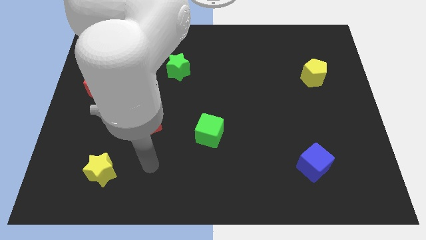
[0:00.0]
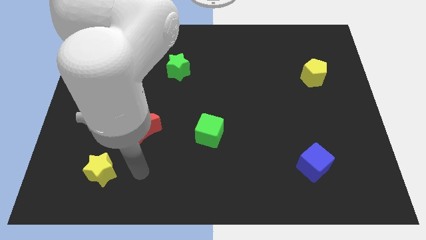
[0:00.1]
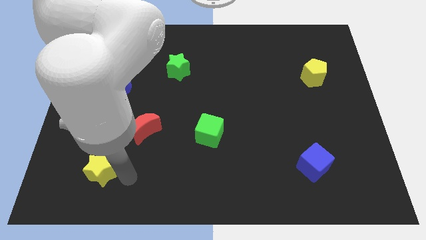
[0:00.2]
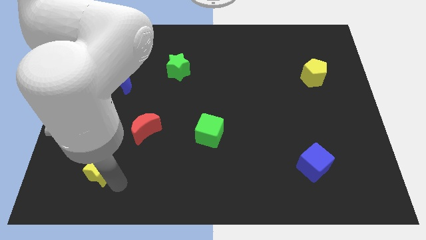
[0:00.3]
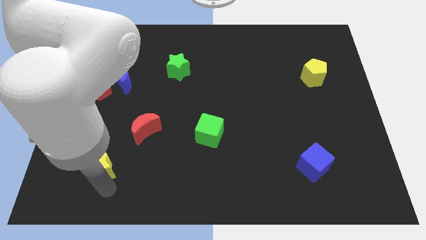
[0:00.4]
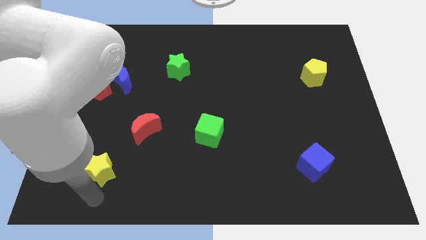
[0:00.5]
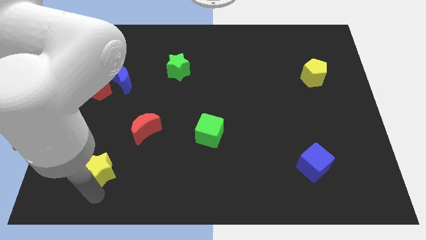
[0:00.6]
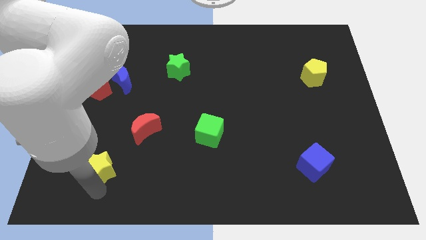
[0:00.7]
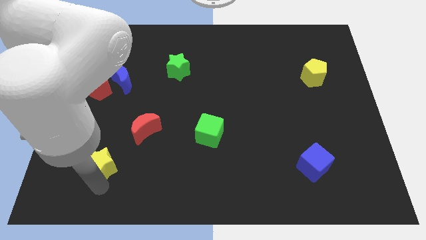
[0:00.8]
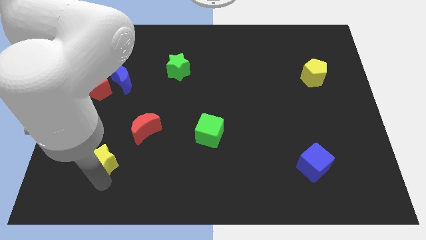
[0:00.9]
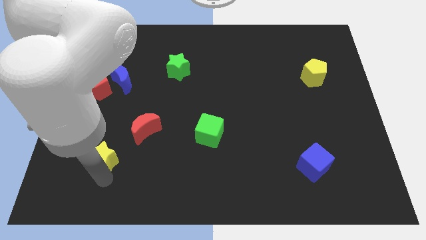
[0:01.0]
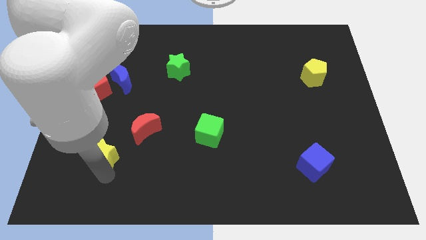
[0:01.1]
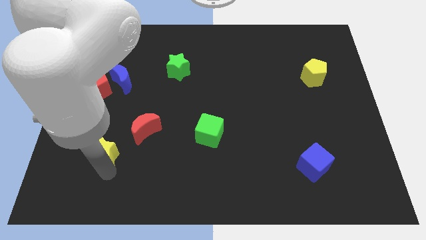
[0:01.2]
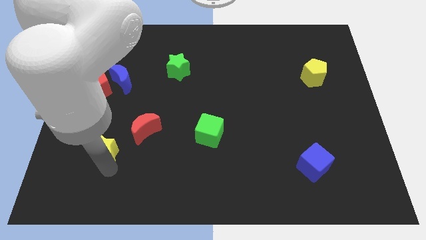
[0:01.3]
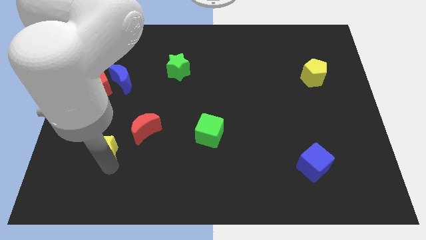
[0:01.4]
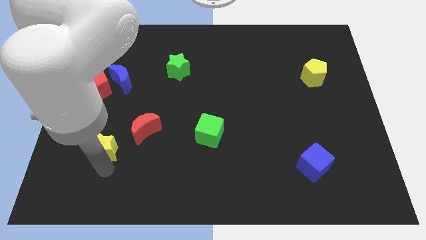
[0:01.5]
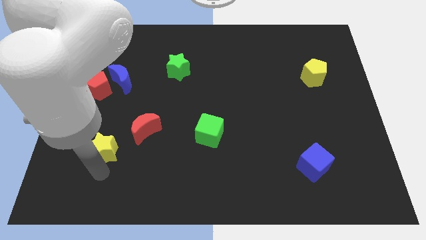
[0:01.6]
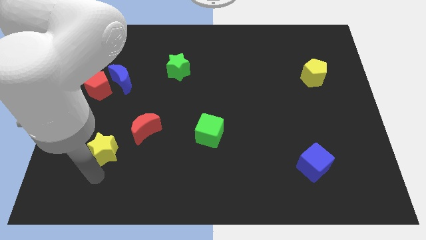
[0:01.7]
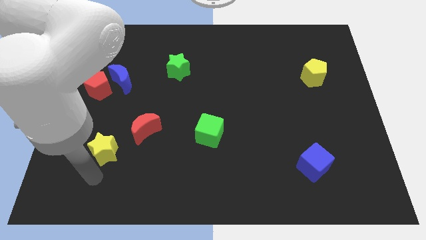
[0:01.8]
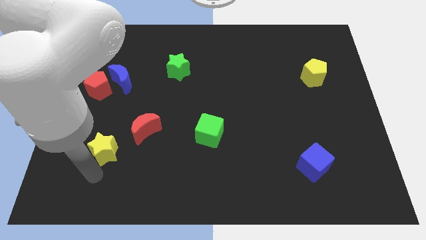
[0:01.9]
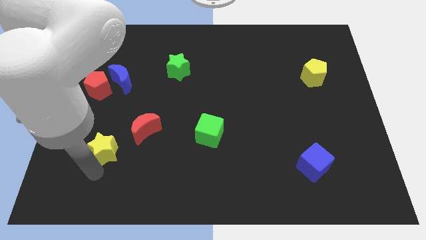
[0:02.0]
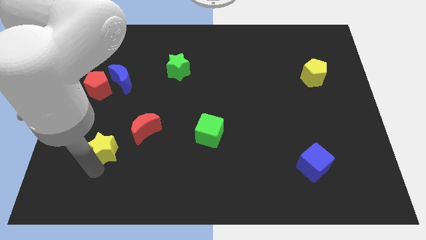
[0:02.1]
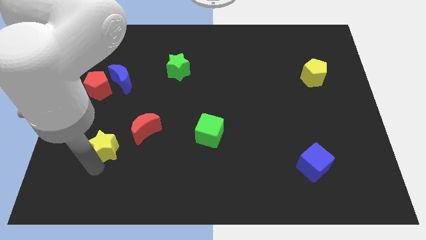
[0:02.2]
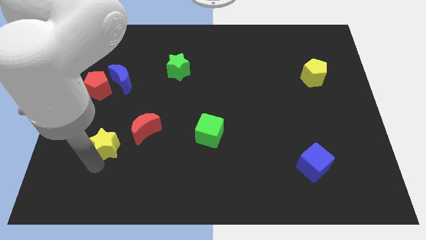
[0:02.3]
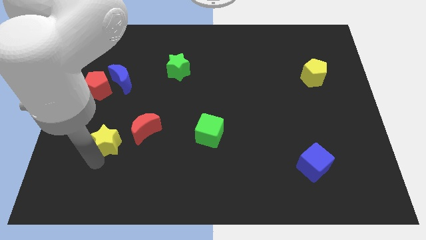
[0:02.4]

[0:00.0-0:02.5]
slide the yellow star a bit up

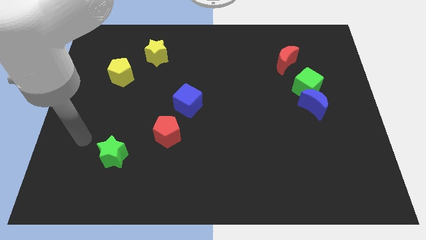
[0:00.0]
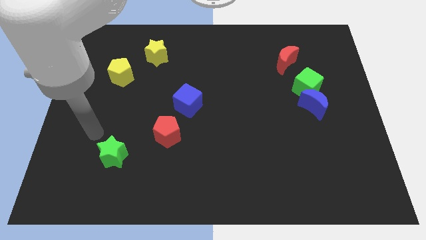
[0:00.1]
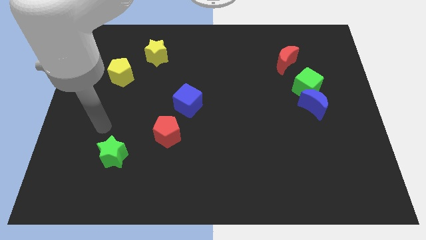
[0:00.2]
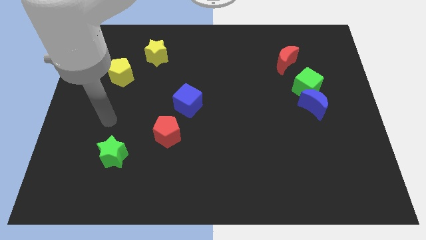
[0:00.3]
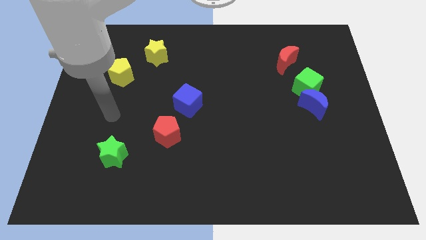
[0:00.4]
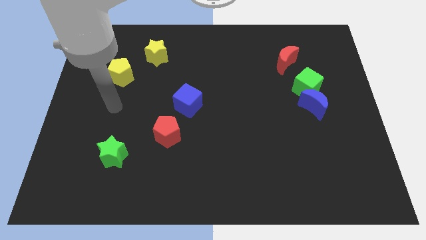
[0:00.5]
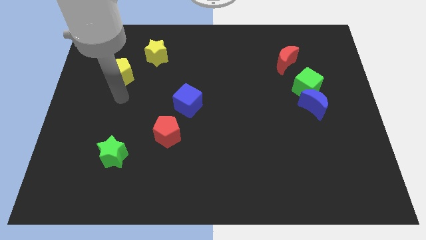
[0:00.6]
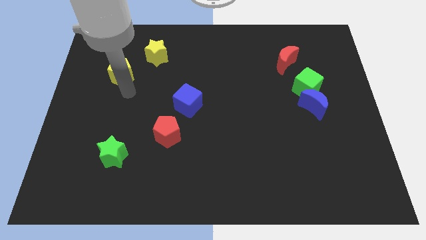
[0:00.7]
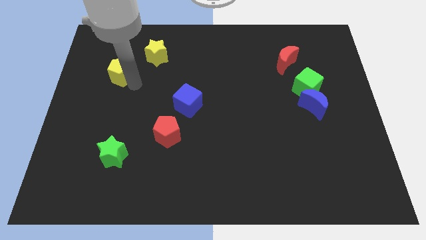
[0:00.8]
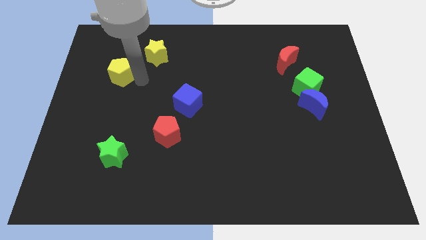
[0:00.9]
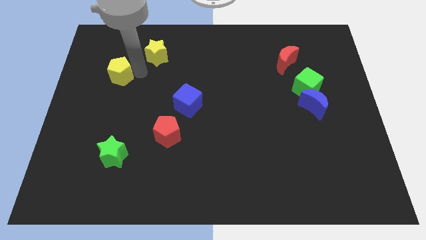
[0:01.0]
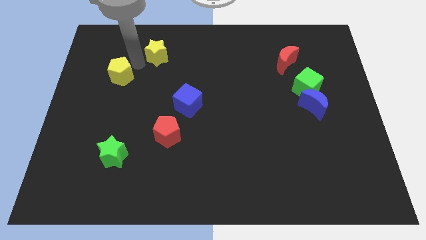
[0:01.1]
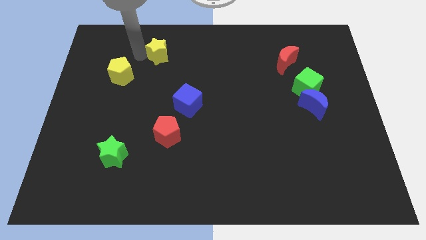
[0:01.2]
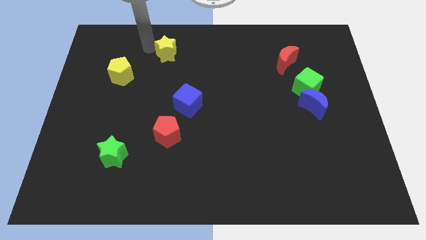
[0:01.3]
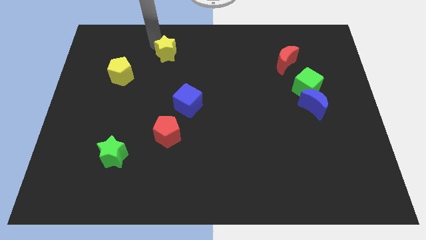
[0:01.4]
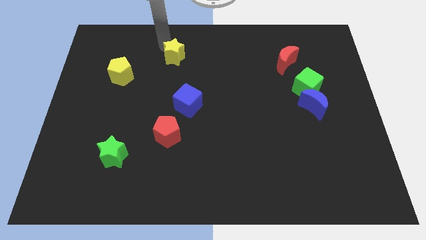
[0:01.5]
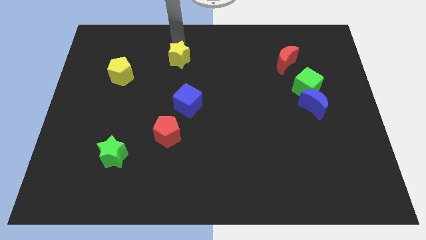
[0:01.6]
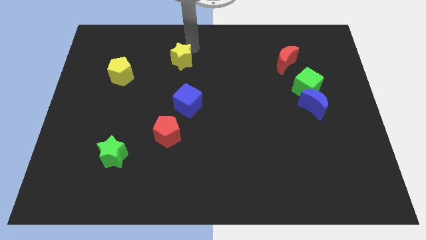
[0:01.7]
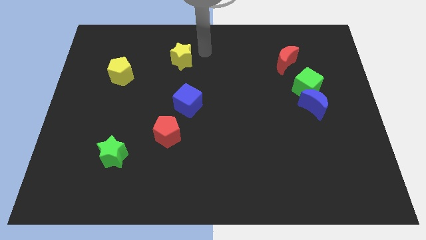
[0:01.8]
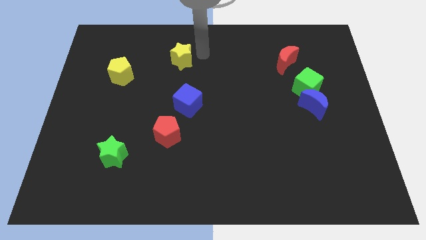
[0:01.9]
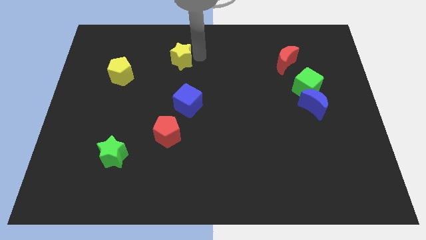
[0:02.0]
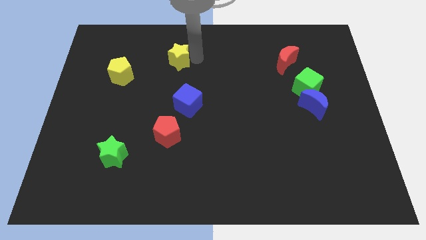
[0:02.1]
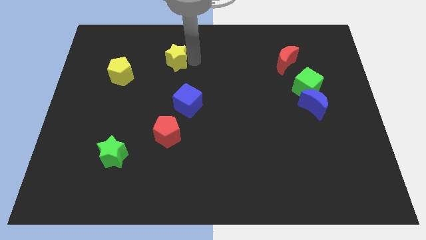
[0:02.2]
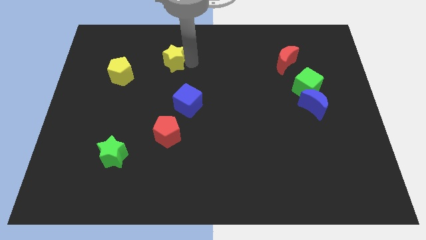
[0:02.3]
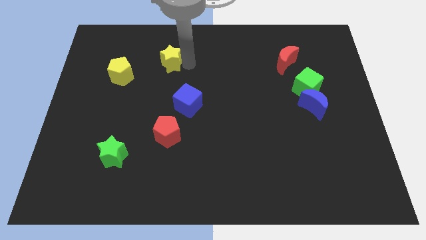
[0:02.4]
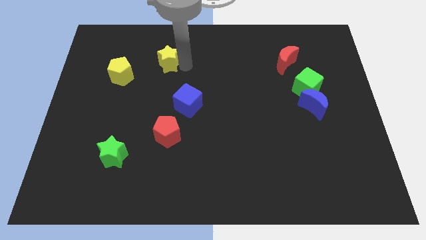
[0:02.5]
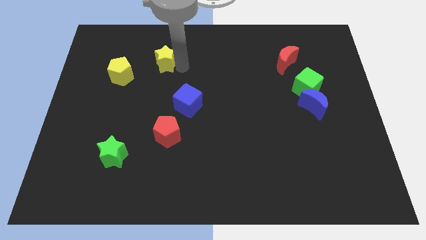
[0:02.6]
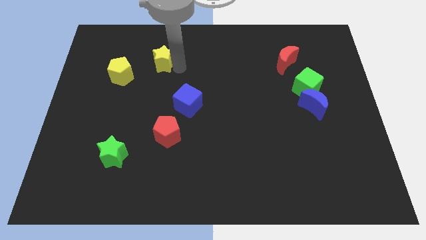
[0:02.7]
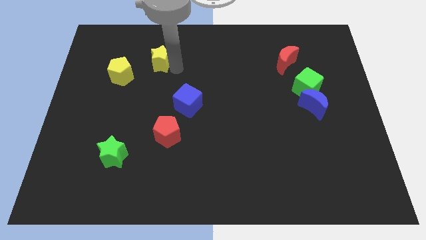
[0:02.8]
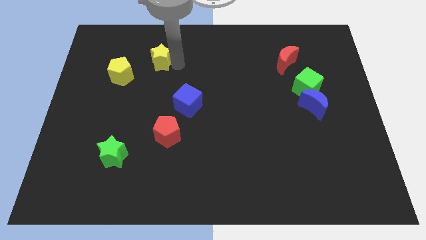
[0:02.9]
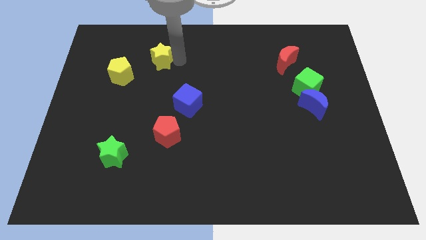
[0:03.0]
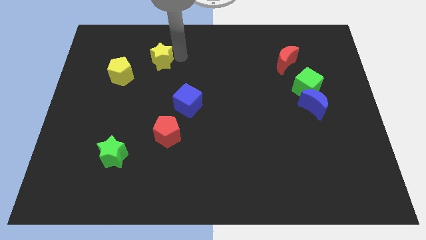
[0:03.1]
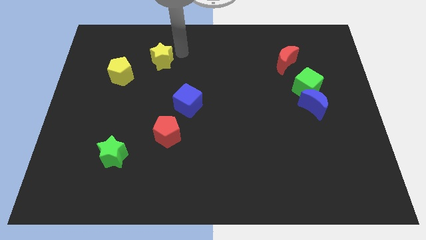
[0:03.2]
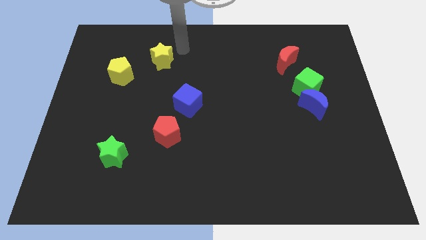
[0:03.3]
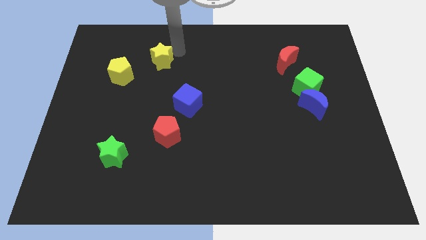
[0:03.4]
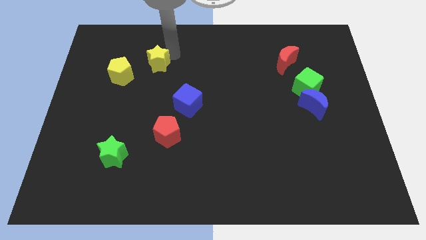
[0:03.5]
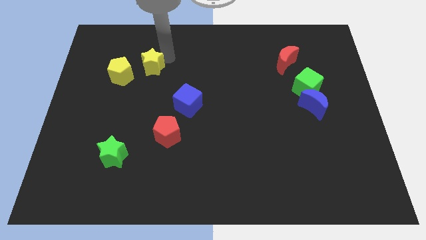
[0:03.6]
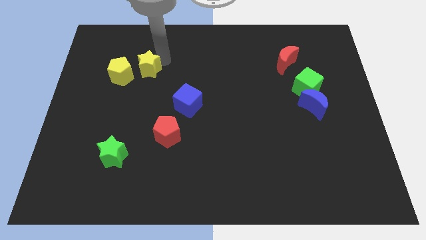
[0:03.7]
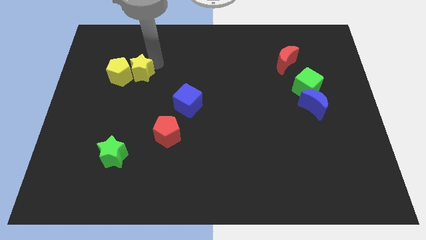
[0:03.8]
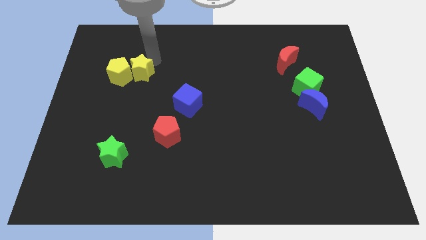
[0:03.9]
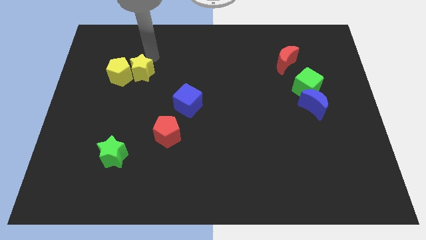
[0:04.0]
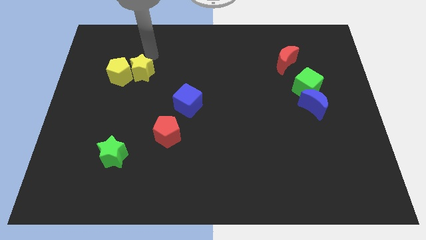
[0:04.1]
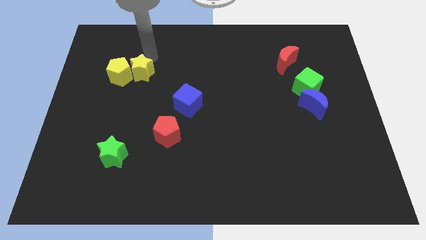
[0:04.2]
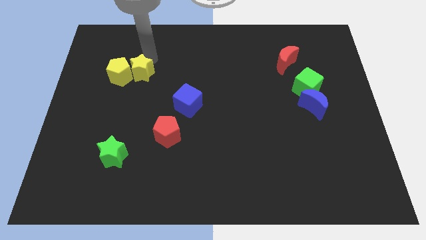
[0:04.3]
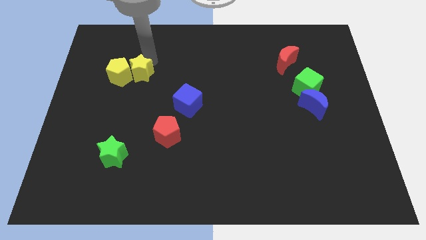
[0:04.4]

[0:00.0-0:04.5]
move the yellow star downwards and to the left a bit

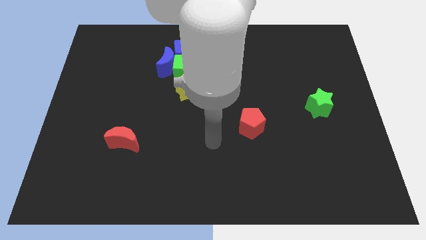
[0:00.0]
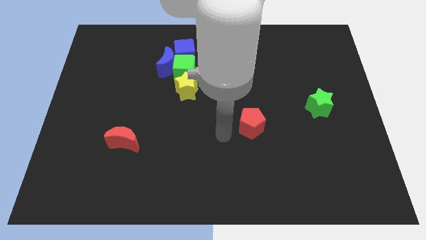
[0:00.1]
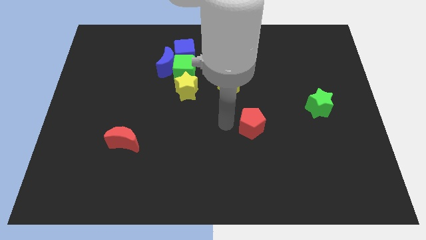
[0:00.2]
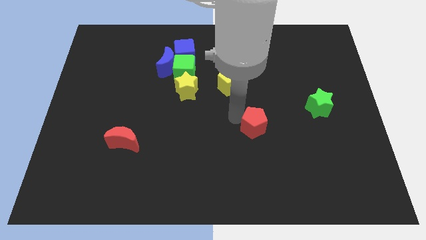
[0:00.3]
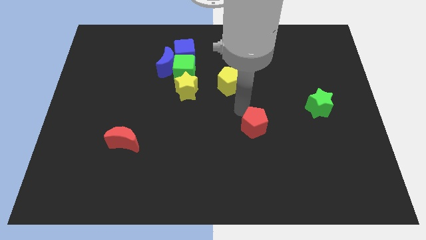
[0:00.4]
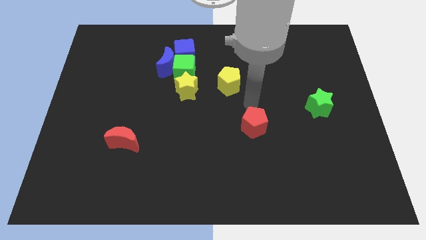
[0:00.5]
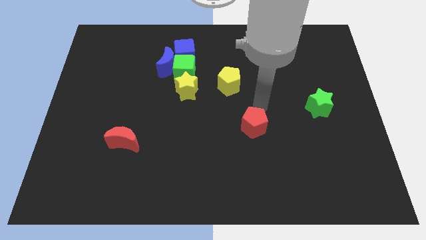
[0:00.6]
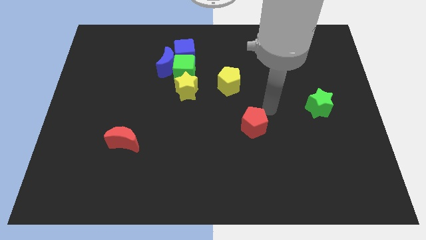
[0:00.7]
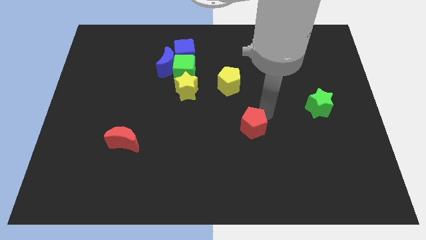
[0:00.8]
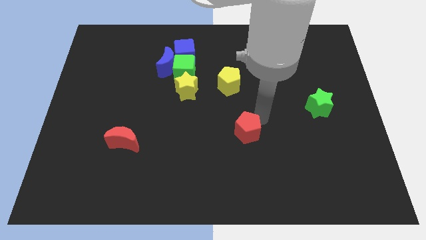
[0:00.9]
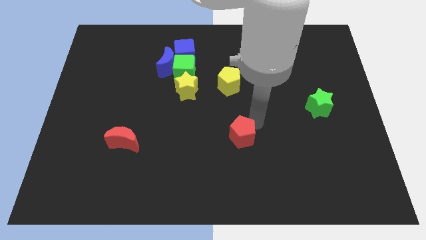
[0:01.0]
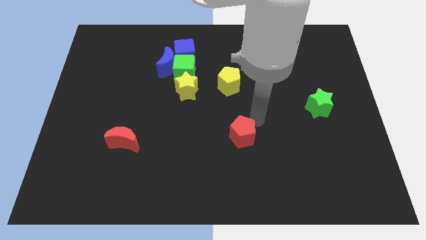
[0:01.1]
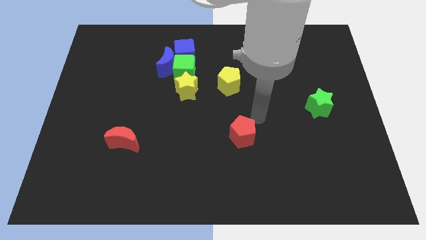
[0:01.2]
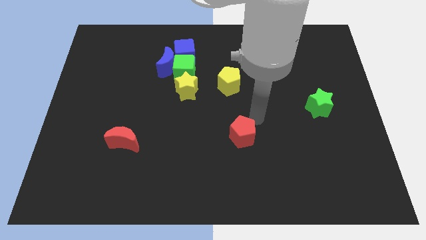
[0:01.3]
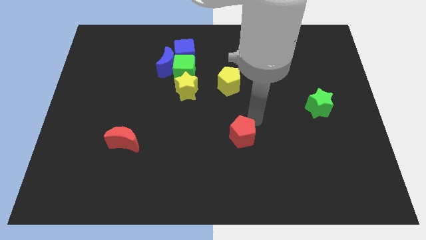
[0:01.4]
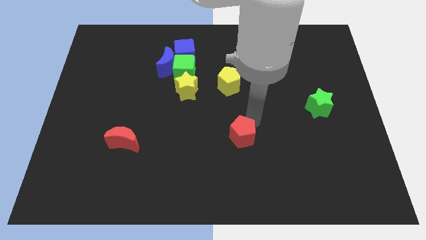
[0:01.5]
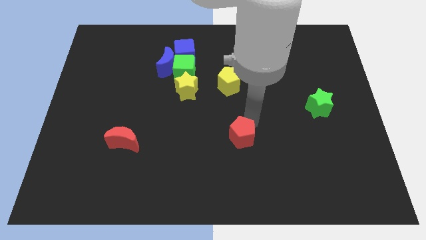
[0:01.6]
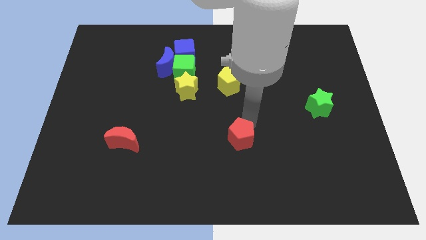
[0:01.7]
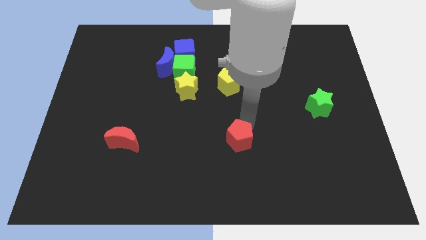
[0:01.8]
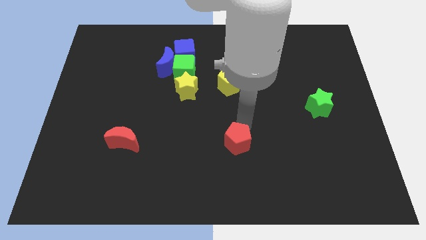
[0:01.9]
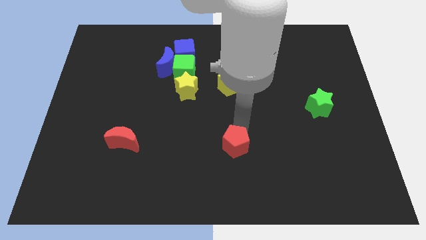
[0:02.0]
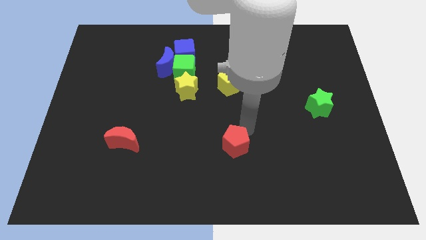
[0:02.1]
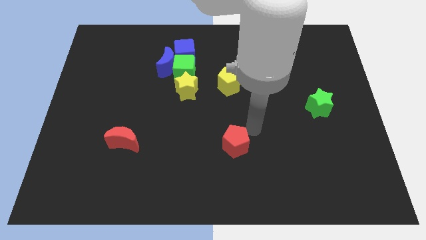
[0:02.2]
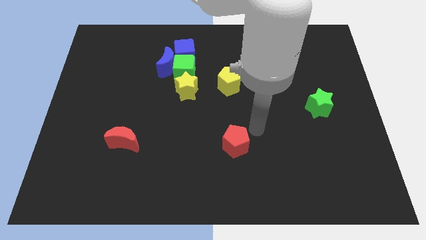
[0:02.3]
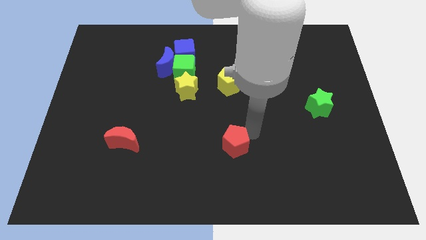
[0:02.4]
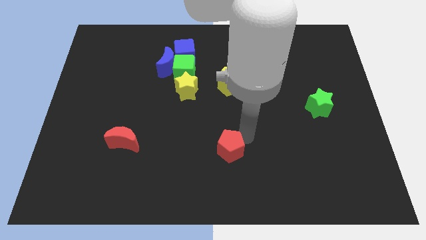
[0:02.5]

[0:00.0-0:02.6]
slide the red pentagon downwards and to the left diagonally somewhat
